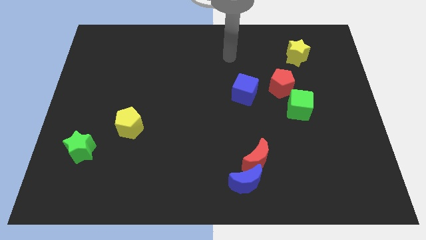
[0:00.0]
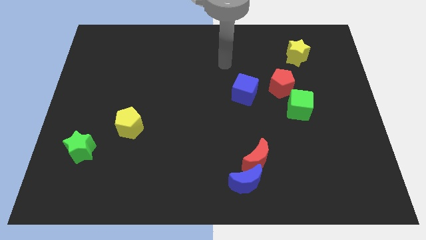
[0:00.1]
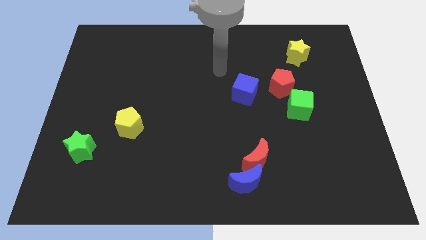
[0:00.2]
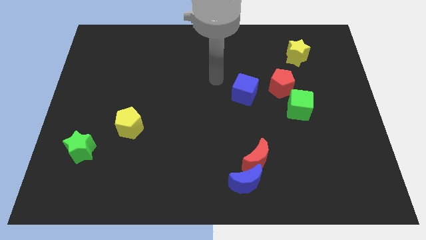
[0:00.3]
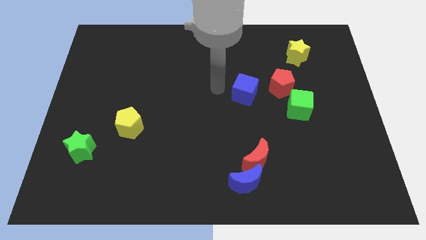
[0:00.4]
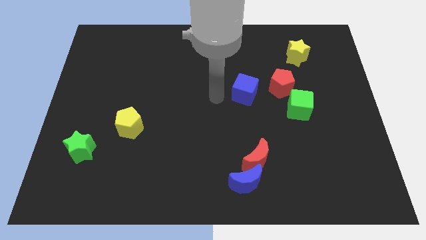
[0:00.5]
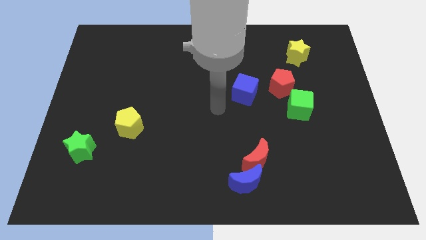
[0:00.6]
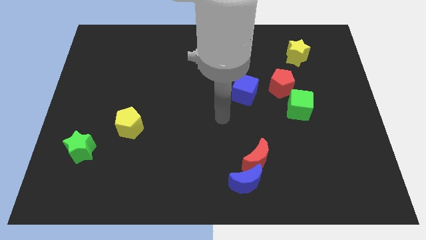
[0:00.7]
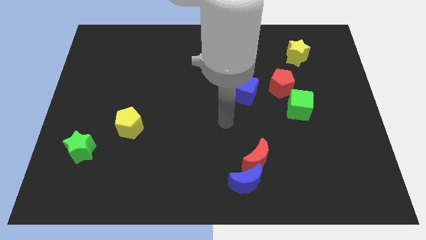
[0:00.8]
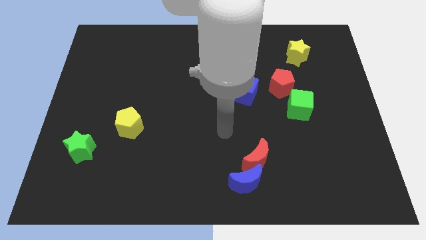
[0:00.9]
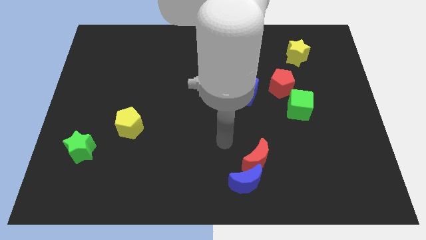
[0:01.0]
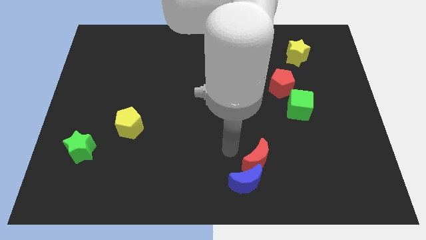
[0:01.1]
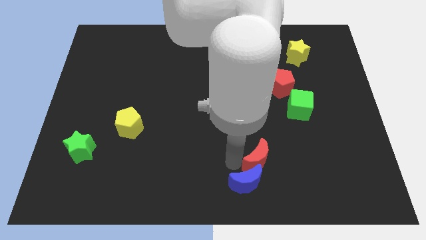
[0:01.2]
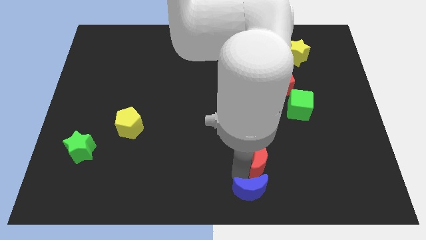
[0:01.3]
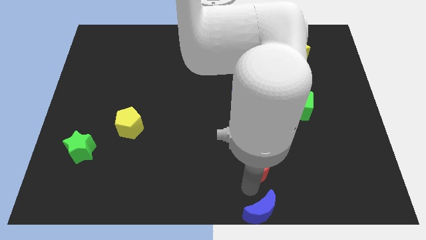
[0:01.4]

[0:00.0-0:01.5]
move the red moon away from the blue moon

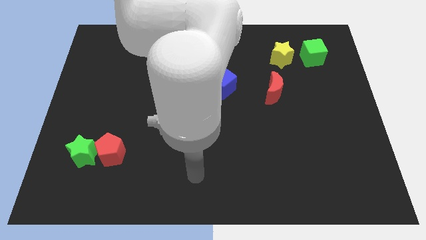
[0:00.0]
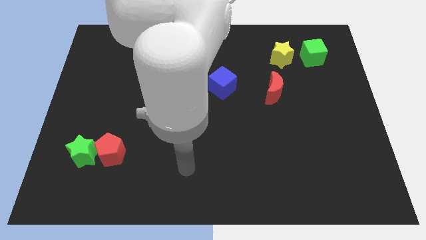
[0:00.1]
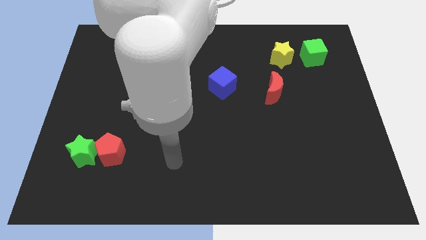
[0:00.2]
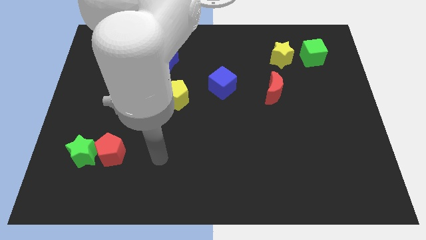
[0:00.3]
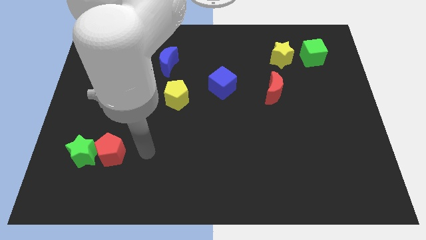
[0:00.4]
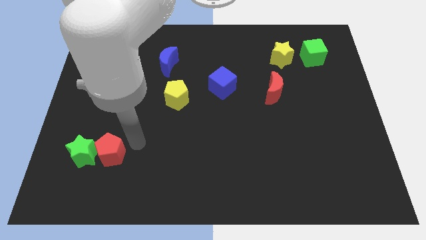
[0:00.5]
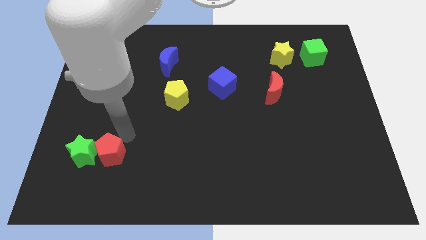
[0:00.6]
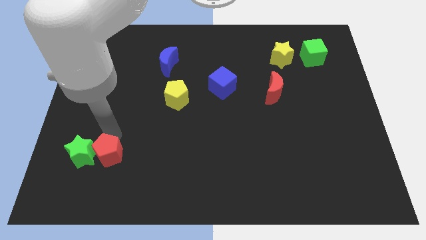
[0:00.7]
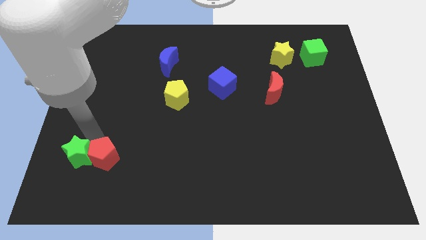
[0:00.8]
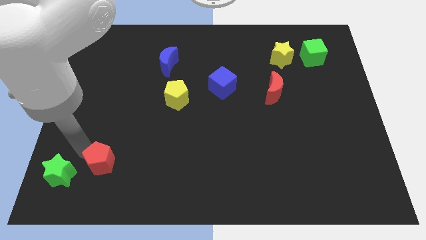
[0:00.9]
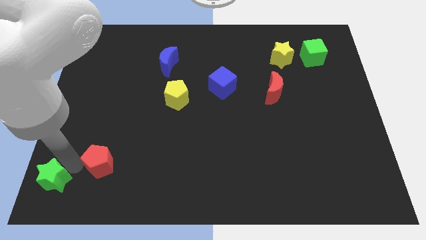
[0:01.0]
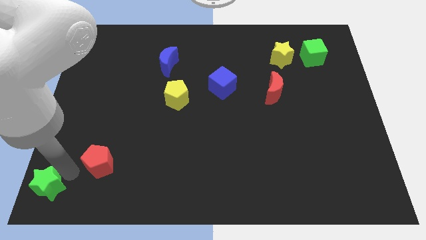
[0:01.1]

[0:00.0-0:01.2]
pull the red pentagon apart from the green star

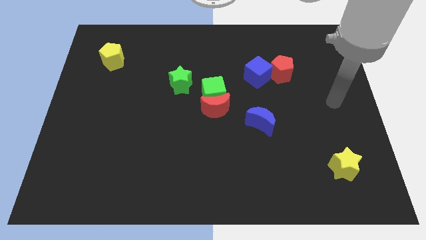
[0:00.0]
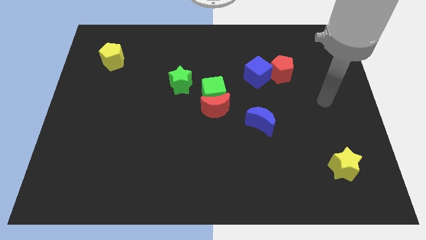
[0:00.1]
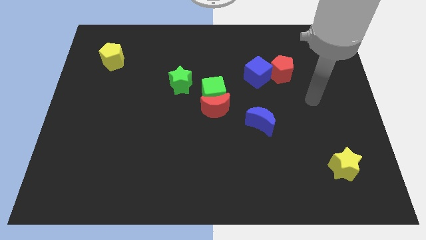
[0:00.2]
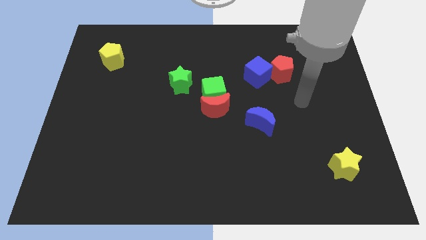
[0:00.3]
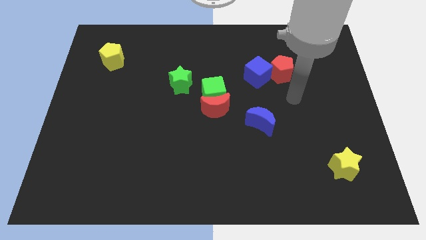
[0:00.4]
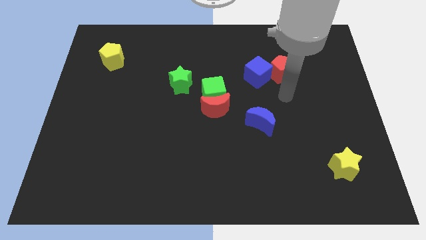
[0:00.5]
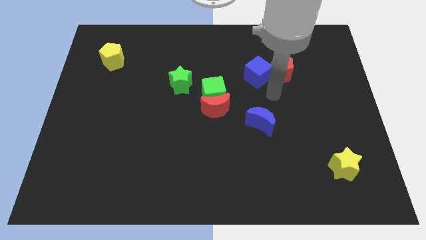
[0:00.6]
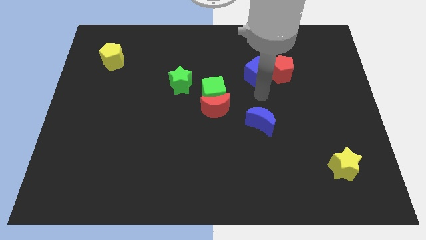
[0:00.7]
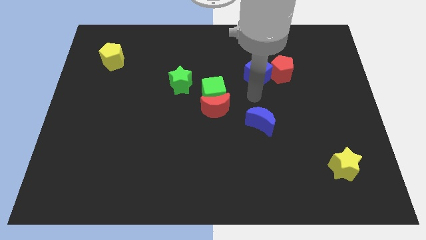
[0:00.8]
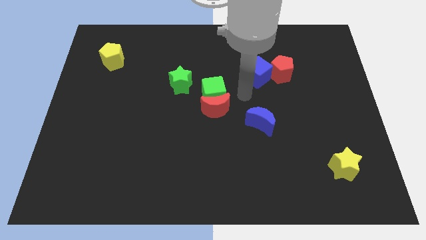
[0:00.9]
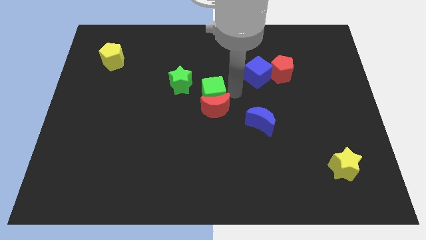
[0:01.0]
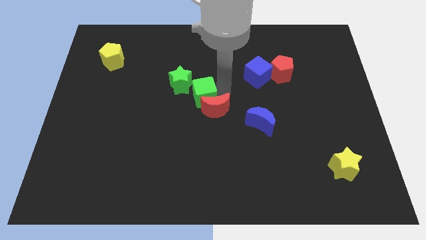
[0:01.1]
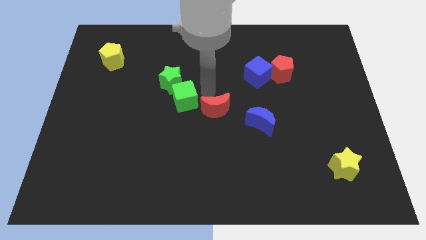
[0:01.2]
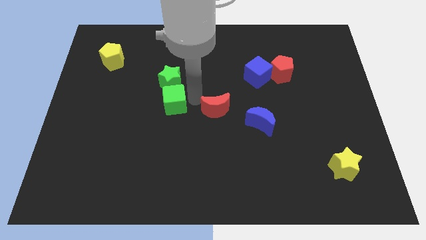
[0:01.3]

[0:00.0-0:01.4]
pull the red moon apart from the green cube

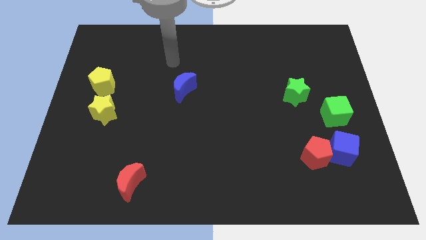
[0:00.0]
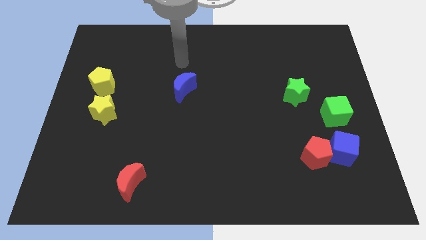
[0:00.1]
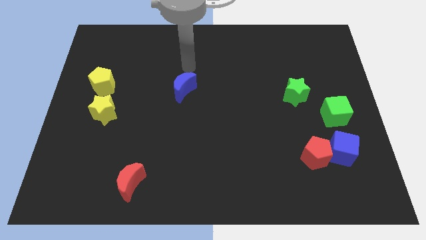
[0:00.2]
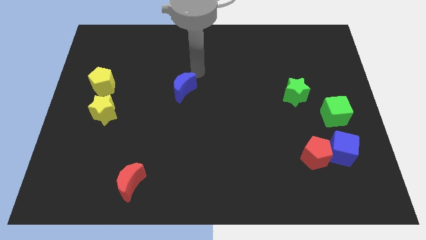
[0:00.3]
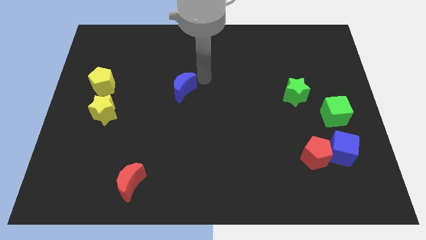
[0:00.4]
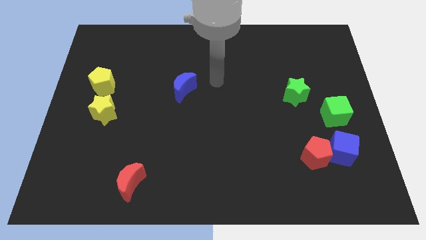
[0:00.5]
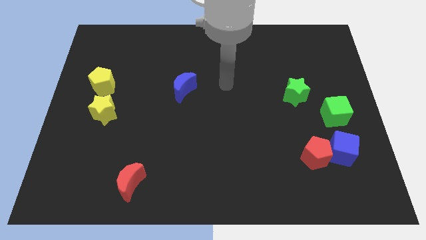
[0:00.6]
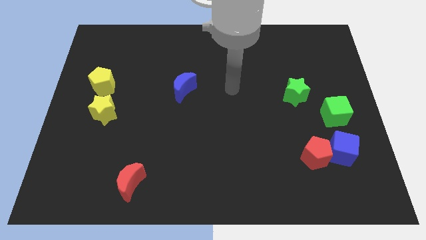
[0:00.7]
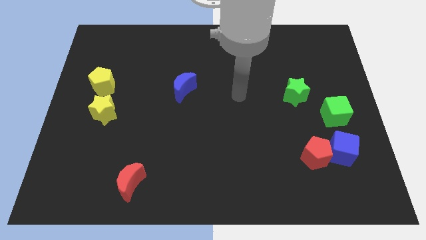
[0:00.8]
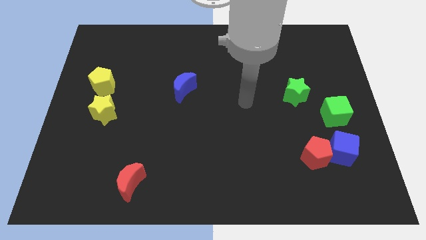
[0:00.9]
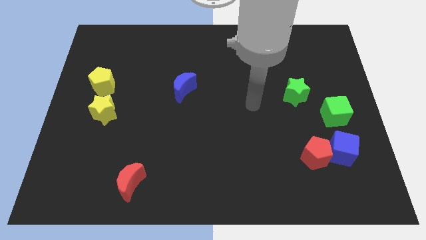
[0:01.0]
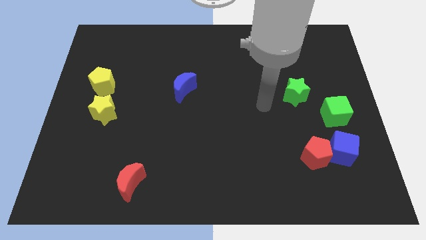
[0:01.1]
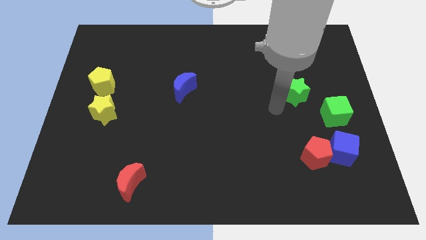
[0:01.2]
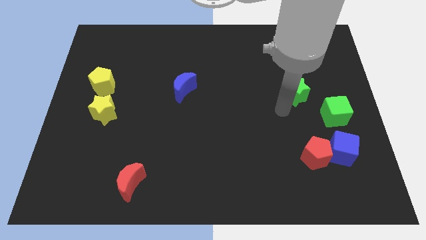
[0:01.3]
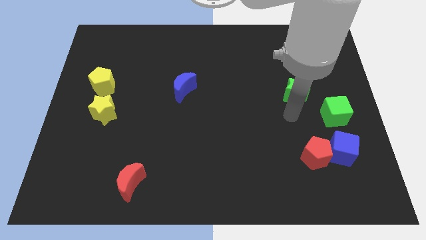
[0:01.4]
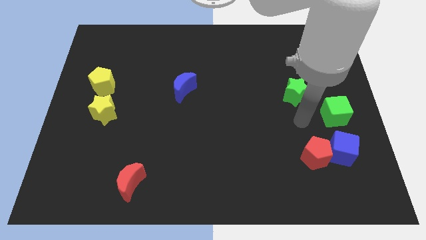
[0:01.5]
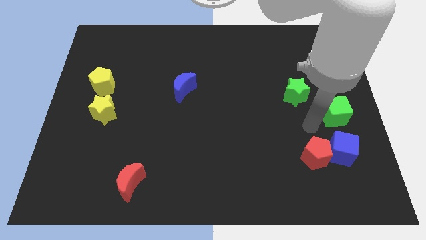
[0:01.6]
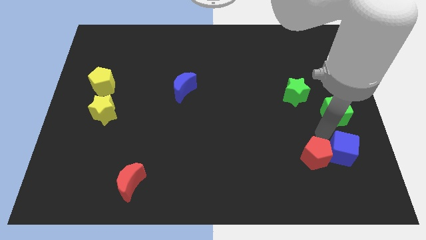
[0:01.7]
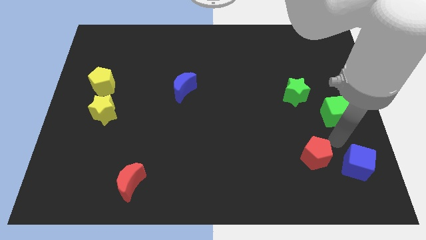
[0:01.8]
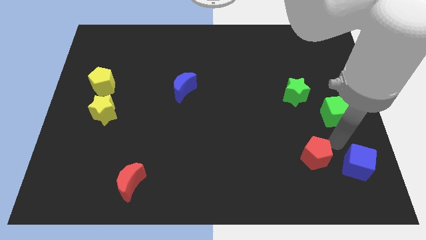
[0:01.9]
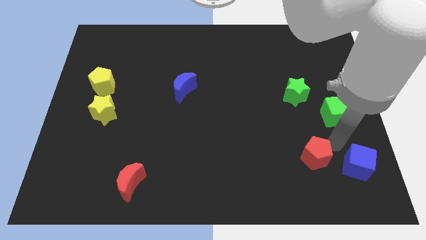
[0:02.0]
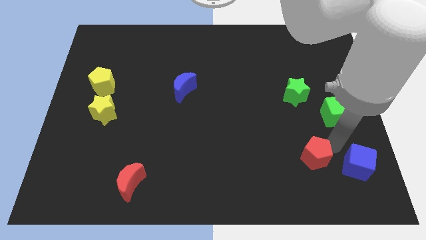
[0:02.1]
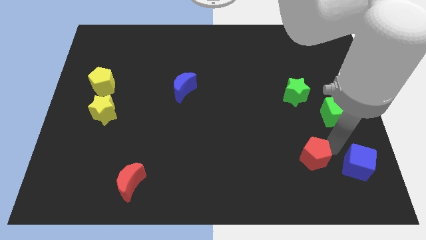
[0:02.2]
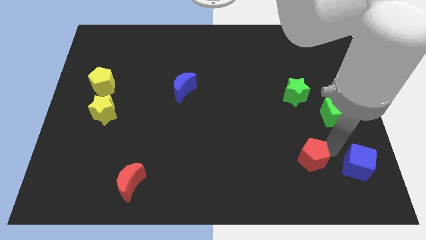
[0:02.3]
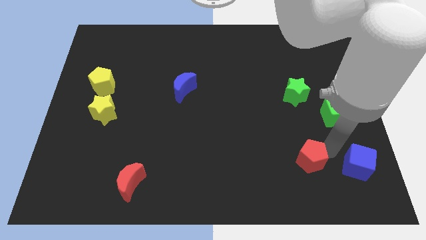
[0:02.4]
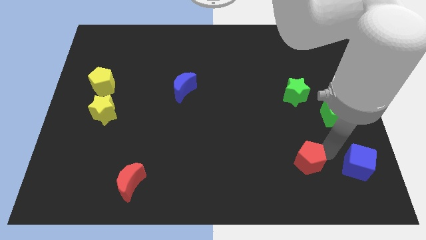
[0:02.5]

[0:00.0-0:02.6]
pull the red pentagon apart from the blue cube

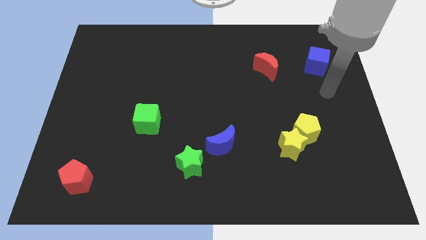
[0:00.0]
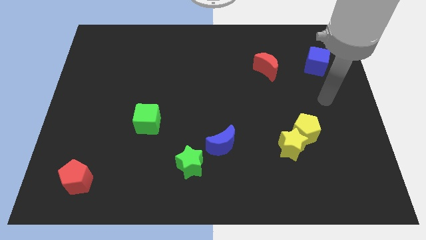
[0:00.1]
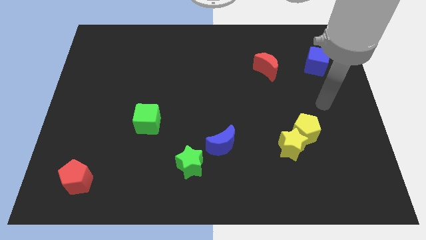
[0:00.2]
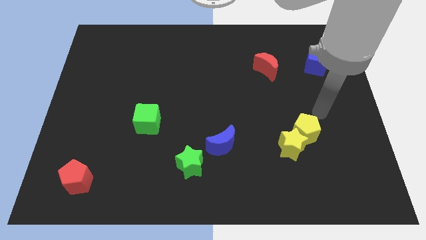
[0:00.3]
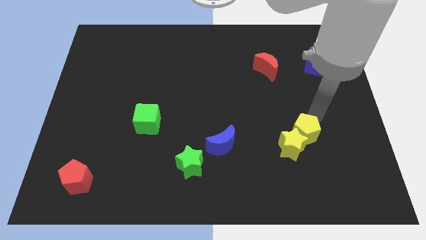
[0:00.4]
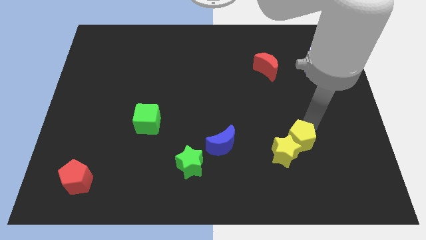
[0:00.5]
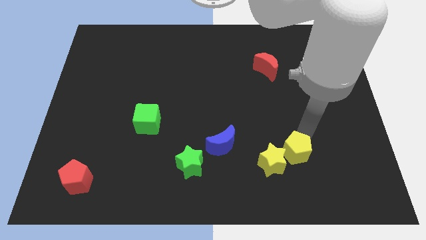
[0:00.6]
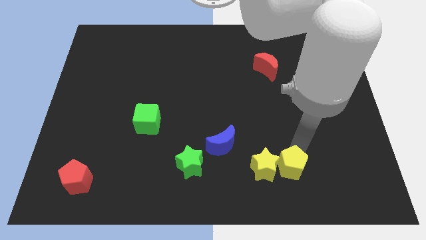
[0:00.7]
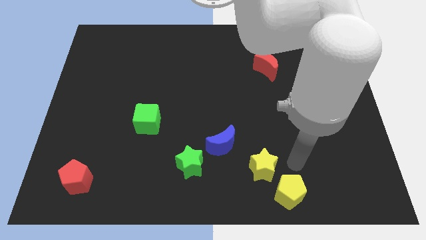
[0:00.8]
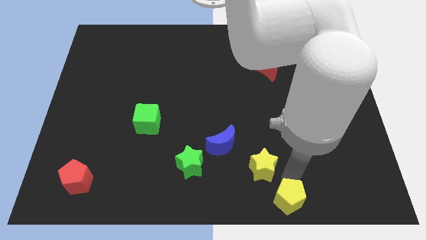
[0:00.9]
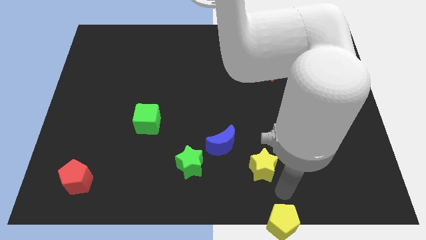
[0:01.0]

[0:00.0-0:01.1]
pull the yellow star apart from the yellow pentagon

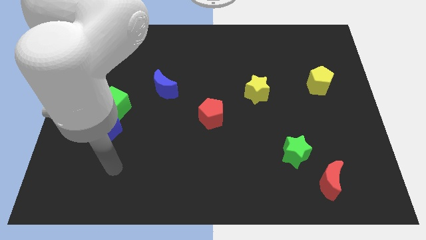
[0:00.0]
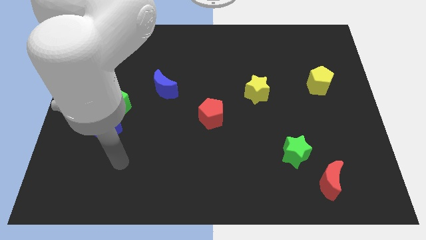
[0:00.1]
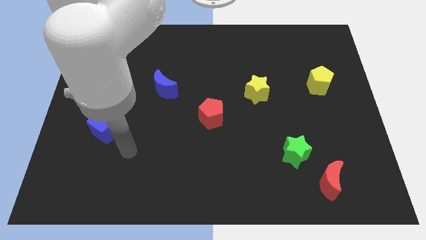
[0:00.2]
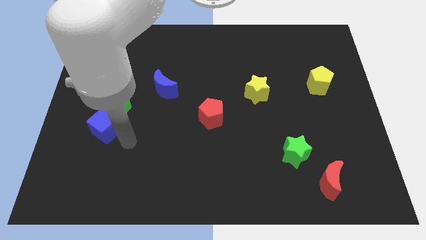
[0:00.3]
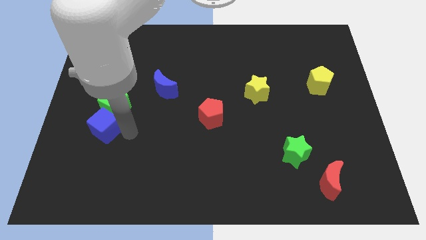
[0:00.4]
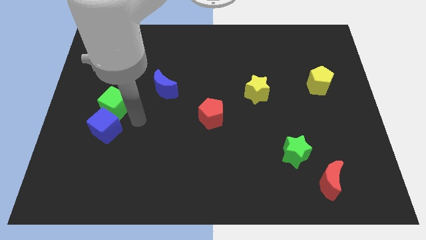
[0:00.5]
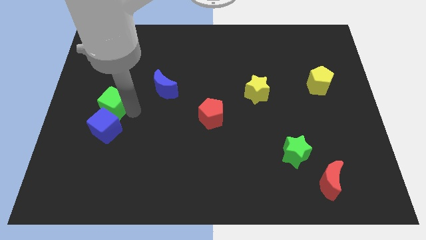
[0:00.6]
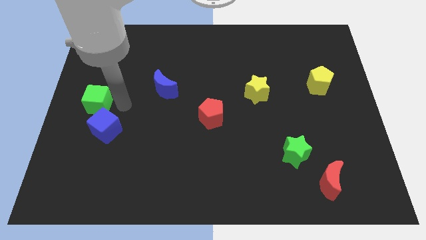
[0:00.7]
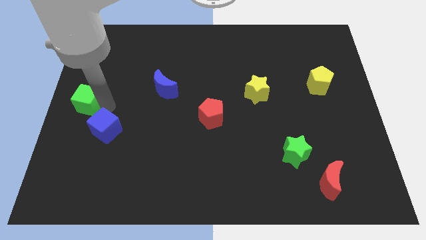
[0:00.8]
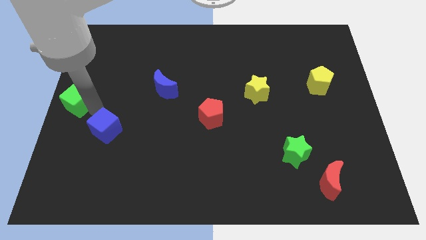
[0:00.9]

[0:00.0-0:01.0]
pull the blue cube apart from the green cube

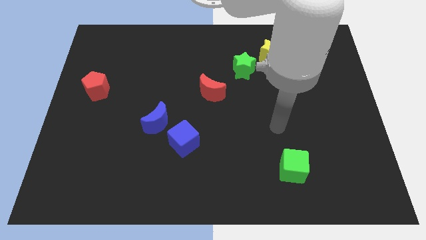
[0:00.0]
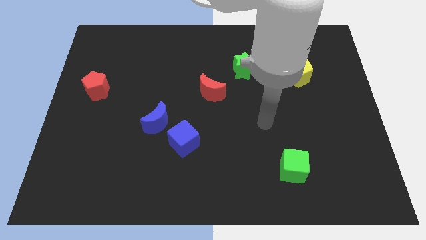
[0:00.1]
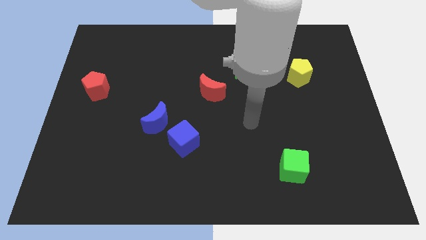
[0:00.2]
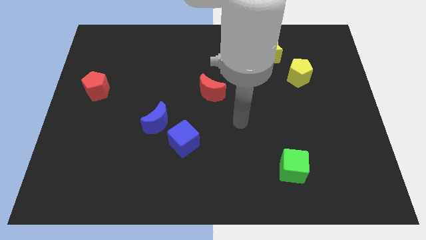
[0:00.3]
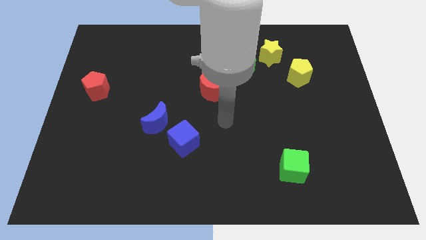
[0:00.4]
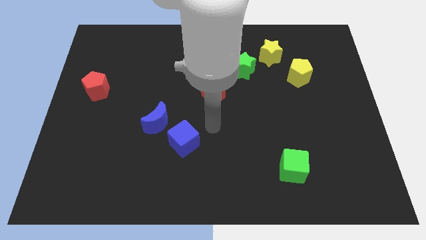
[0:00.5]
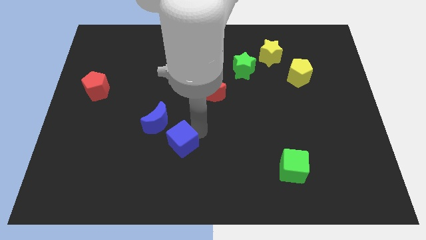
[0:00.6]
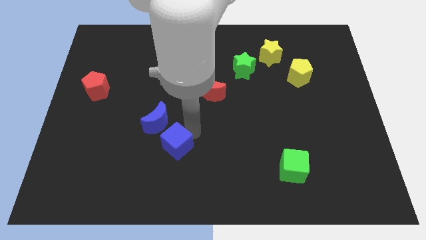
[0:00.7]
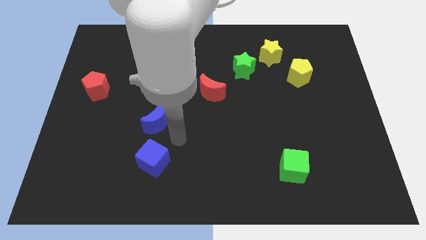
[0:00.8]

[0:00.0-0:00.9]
separate the blue moon from the blue cube
